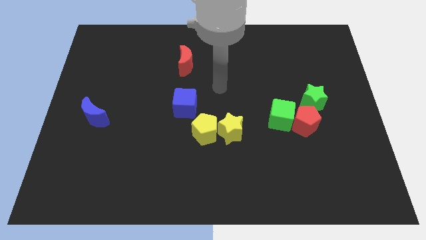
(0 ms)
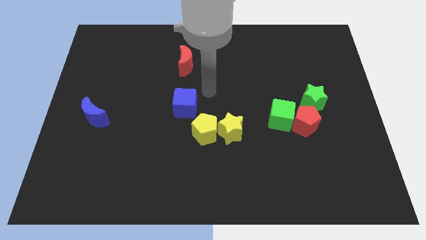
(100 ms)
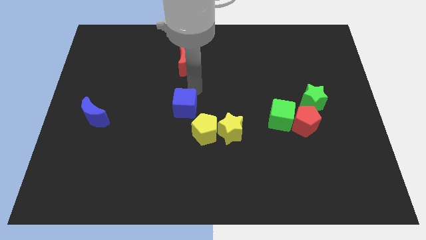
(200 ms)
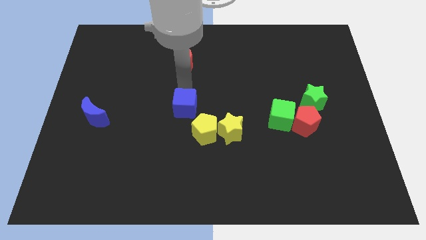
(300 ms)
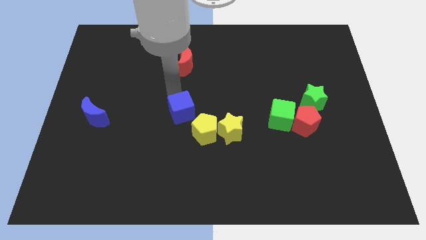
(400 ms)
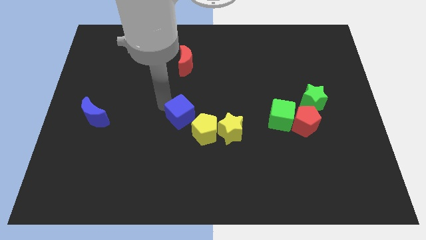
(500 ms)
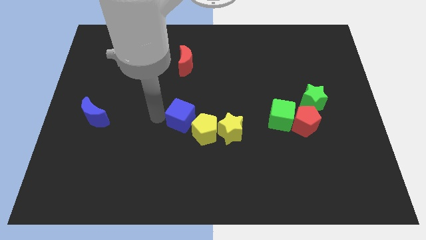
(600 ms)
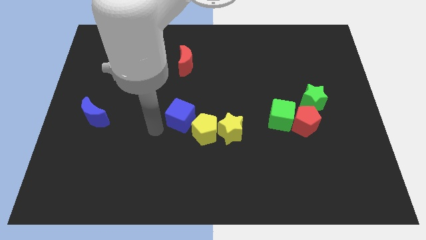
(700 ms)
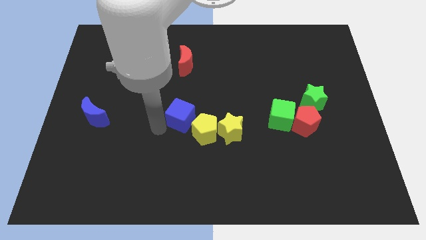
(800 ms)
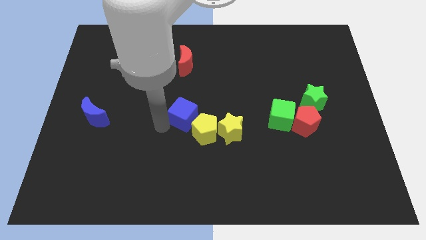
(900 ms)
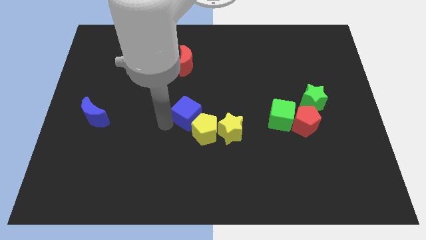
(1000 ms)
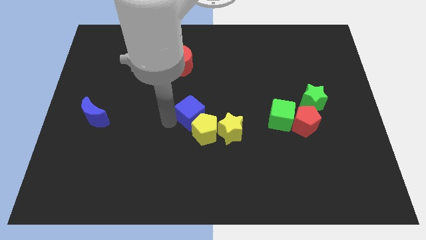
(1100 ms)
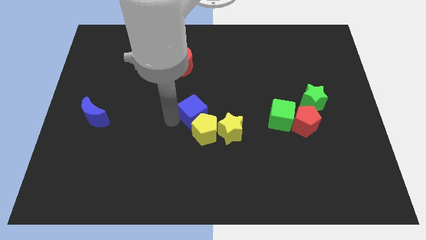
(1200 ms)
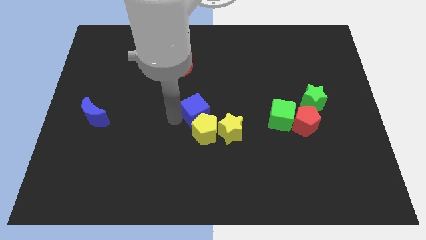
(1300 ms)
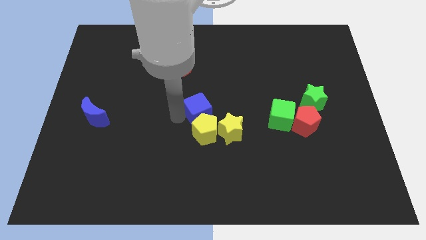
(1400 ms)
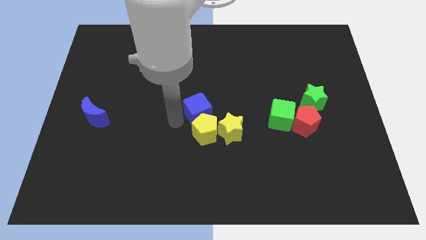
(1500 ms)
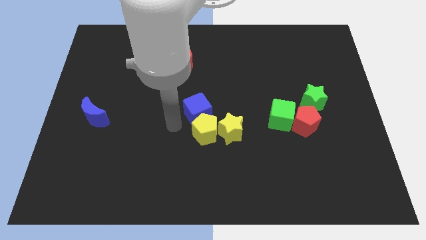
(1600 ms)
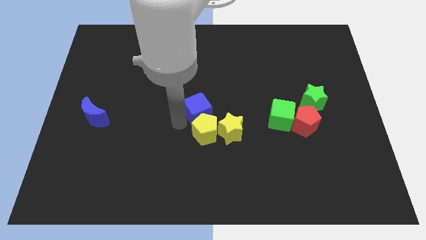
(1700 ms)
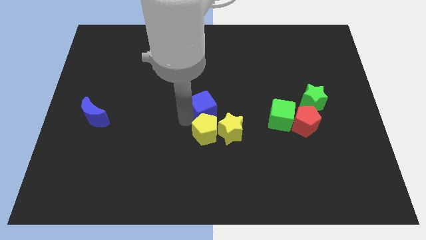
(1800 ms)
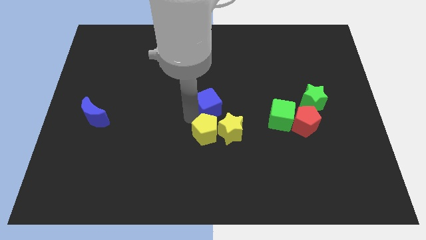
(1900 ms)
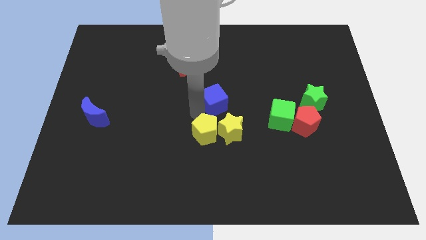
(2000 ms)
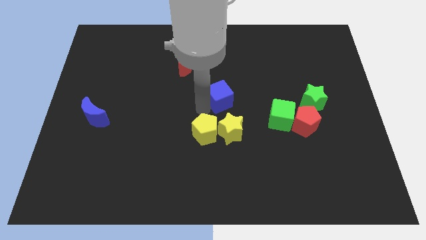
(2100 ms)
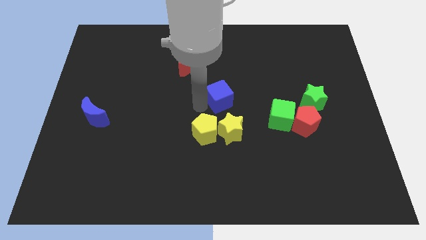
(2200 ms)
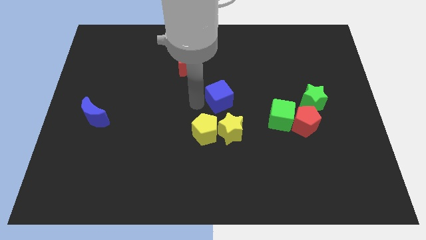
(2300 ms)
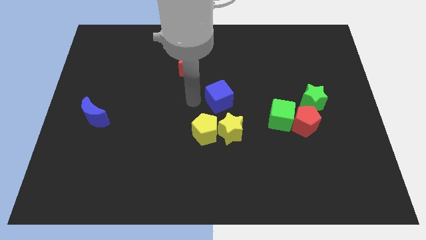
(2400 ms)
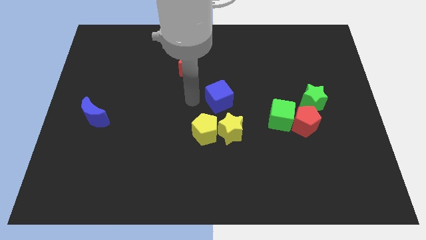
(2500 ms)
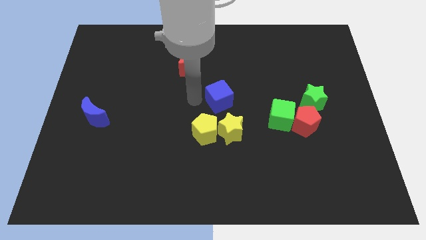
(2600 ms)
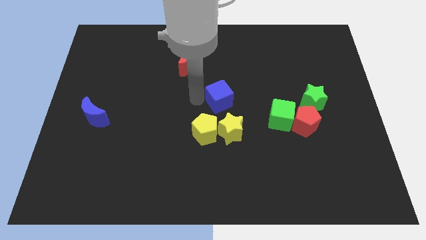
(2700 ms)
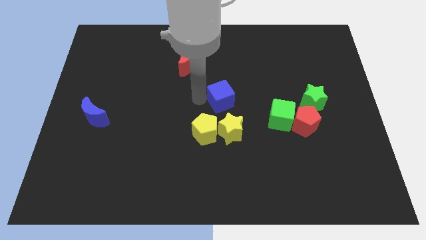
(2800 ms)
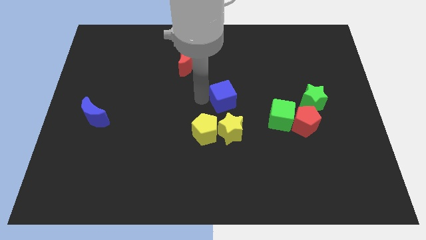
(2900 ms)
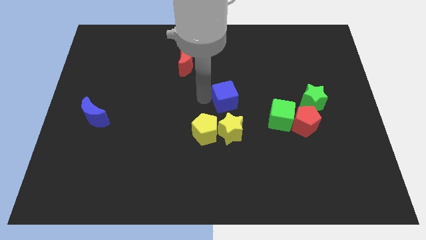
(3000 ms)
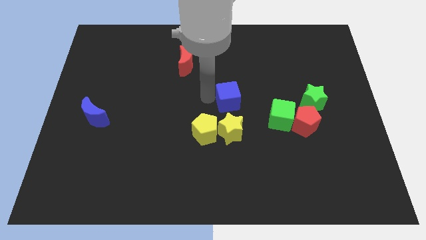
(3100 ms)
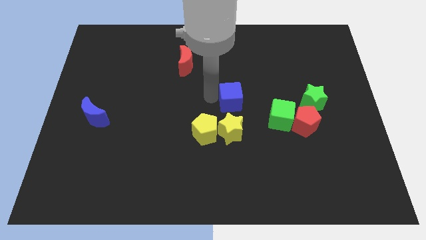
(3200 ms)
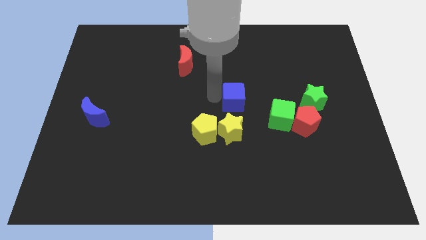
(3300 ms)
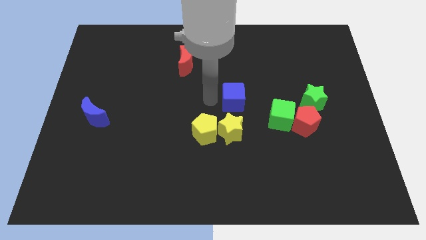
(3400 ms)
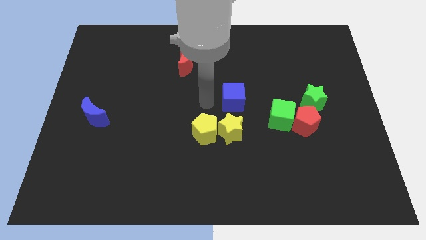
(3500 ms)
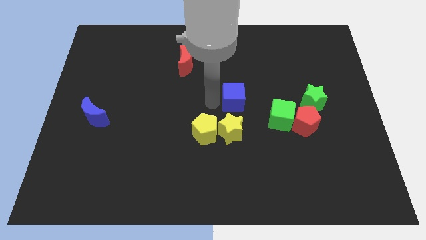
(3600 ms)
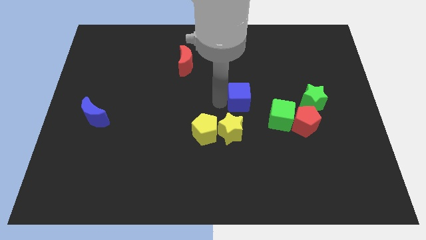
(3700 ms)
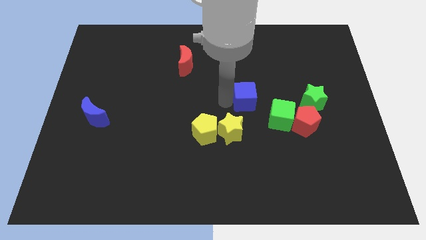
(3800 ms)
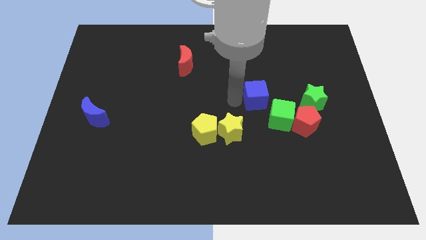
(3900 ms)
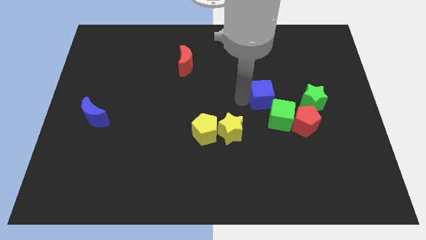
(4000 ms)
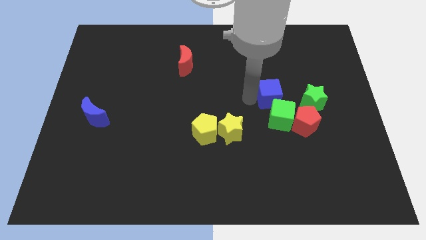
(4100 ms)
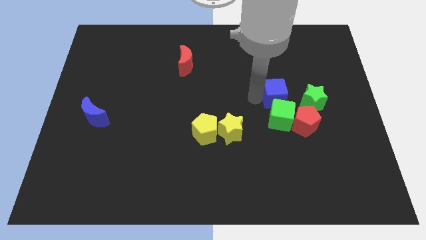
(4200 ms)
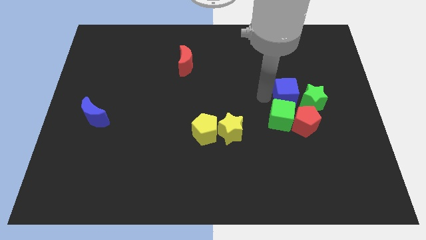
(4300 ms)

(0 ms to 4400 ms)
push the blue cube towards the green star

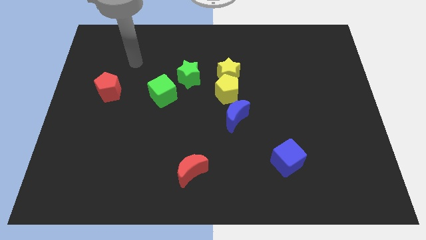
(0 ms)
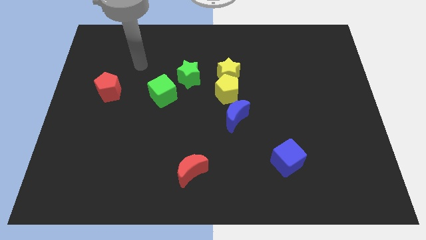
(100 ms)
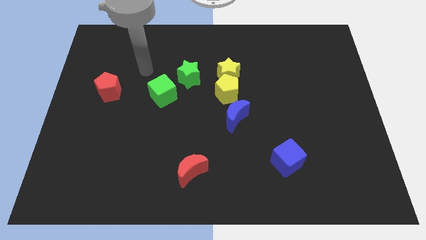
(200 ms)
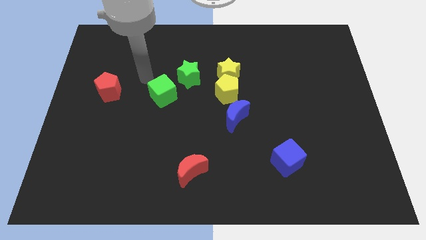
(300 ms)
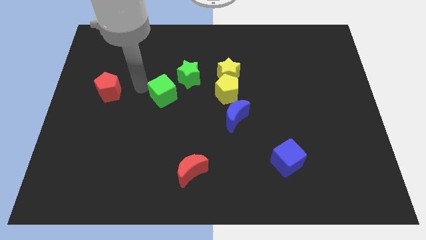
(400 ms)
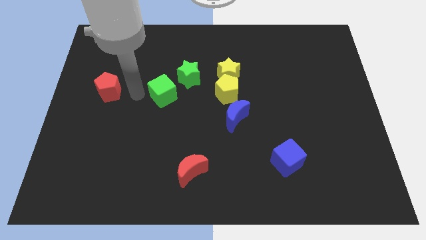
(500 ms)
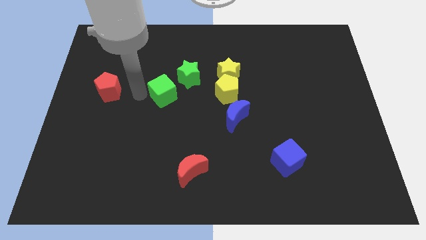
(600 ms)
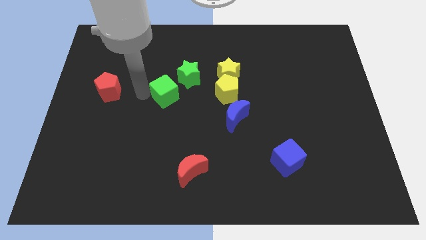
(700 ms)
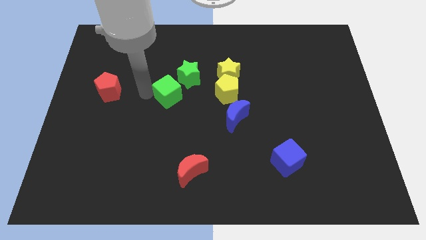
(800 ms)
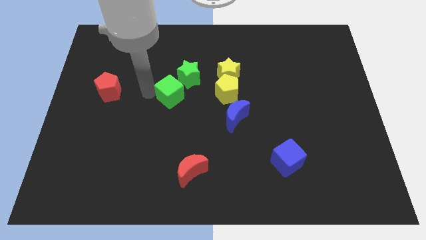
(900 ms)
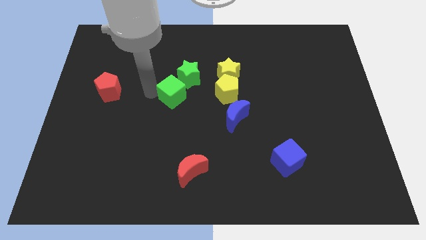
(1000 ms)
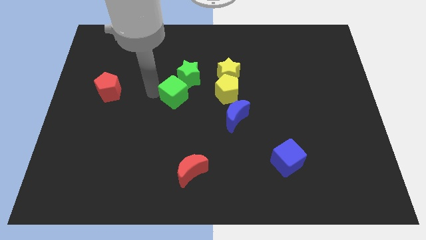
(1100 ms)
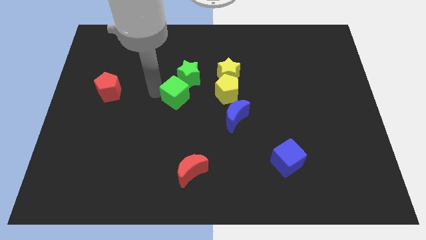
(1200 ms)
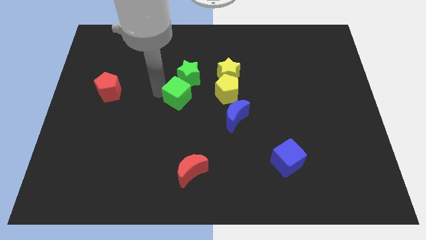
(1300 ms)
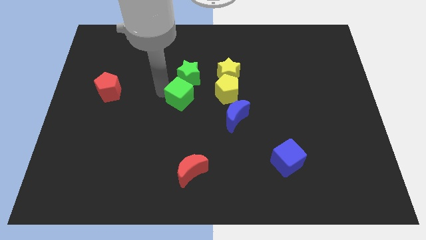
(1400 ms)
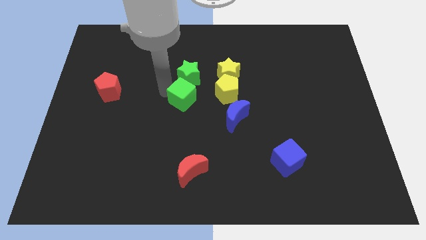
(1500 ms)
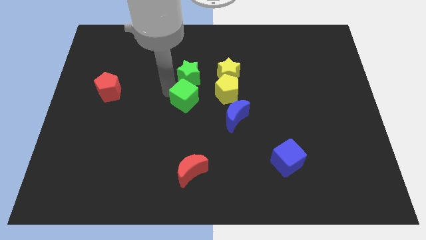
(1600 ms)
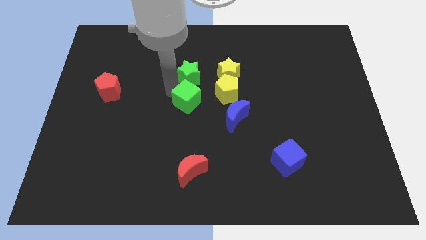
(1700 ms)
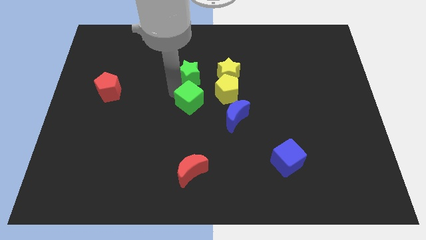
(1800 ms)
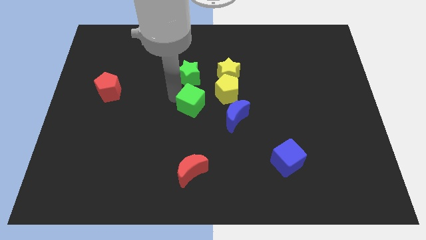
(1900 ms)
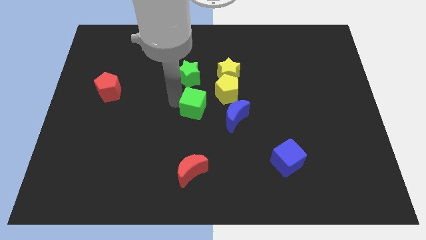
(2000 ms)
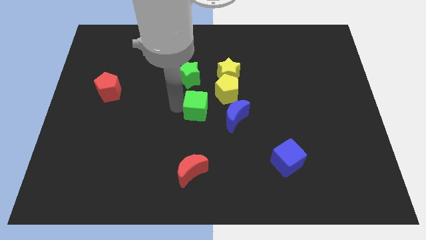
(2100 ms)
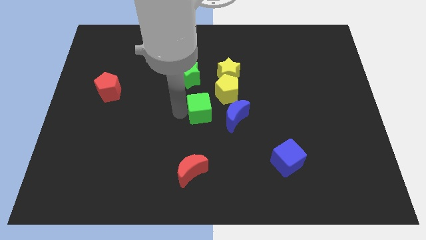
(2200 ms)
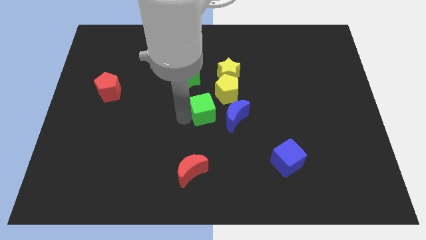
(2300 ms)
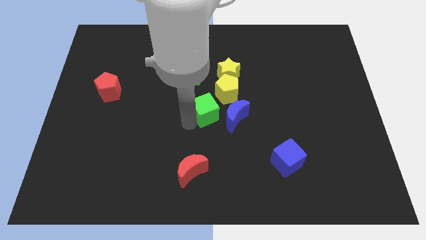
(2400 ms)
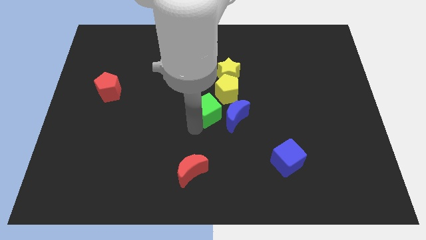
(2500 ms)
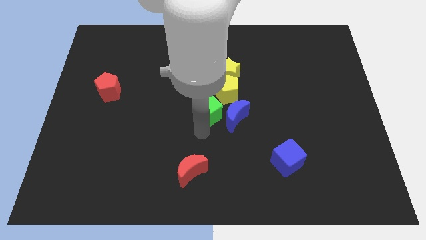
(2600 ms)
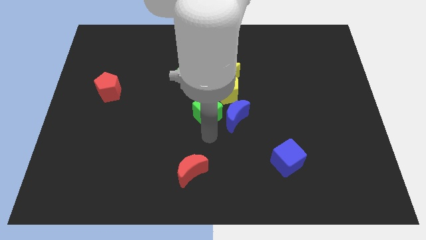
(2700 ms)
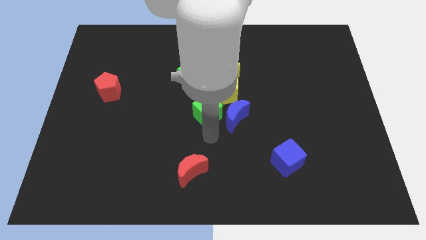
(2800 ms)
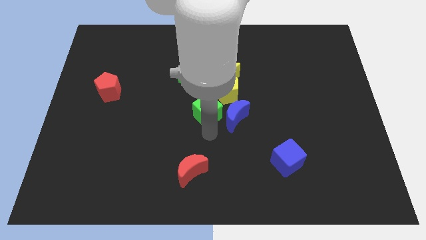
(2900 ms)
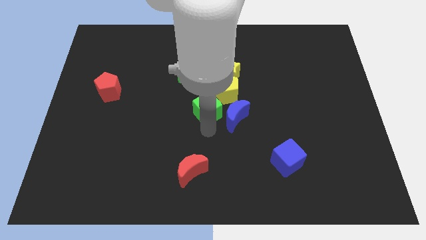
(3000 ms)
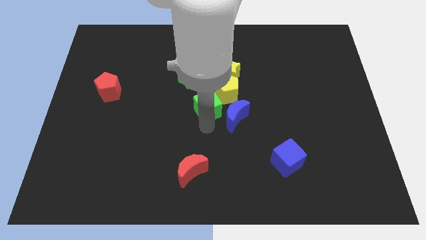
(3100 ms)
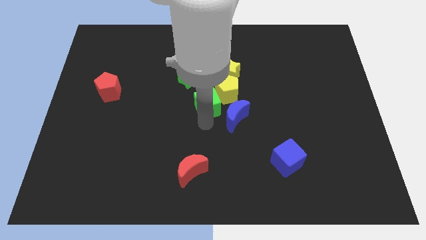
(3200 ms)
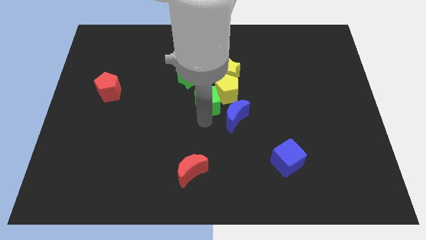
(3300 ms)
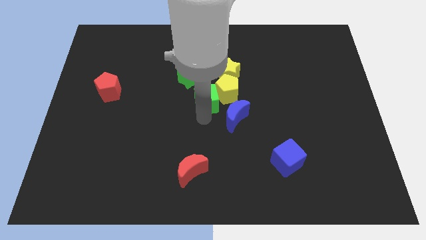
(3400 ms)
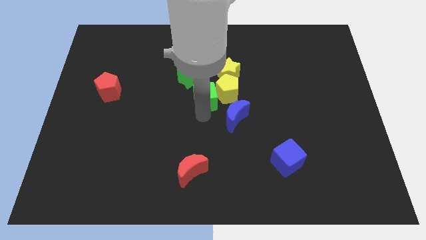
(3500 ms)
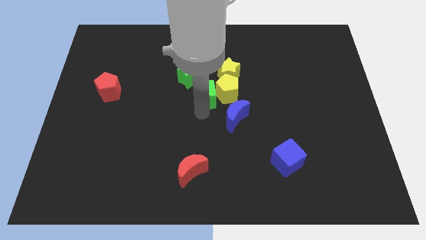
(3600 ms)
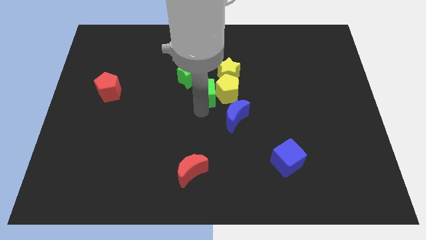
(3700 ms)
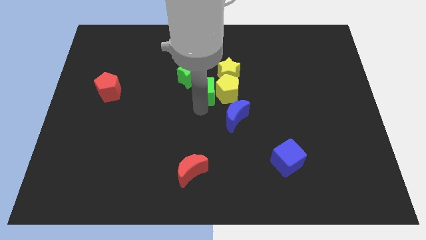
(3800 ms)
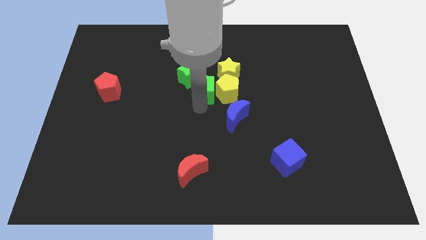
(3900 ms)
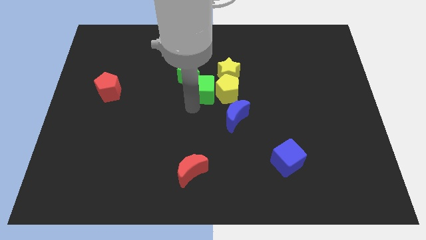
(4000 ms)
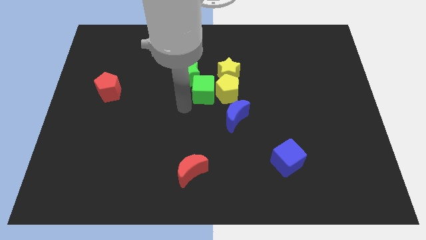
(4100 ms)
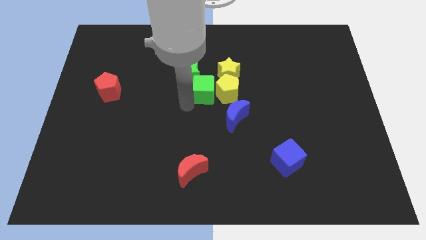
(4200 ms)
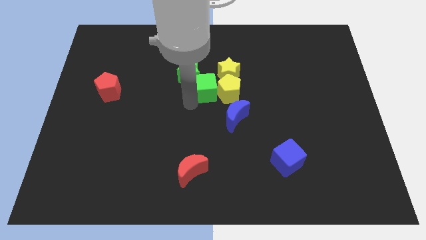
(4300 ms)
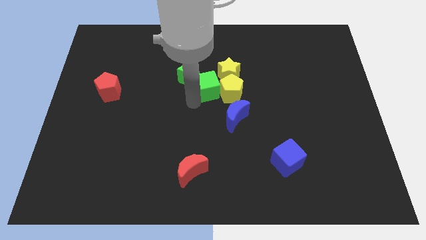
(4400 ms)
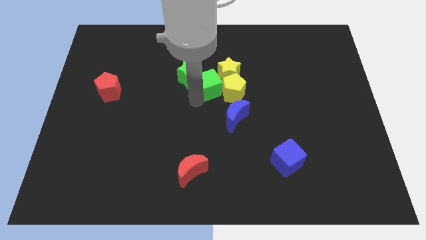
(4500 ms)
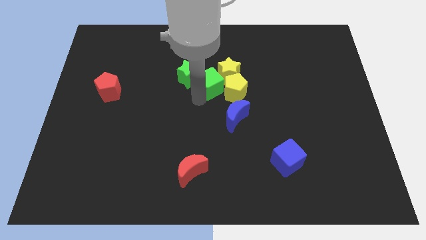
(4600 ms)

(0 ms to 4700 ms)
put the green cube next to the yellow star
